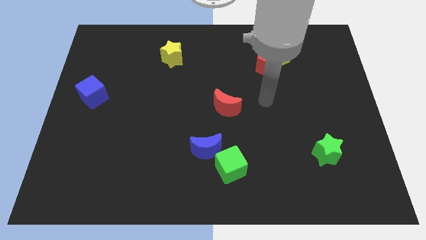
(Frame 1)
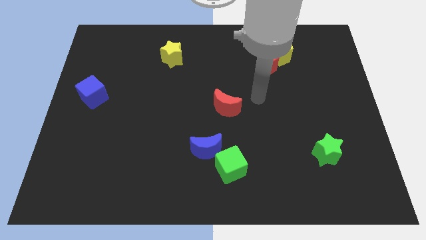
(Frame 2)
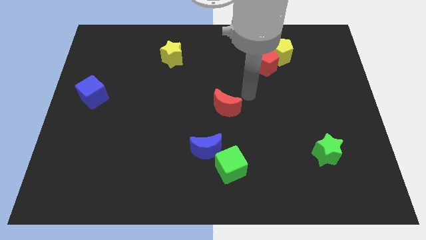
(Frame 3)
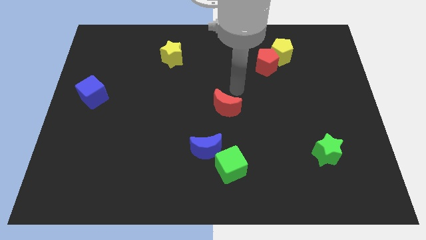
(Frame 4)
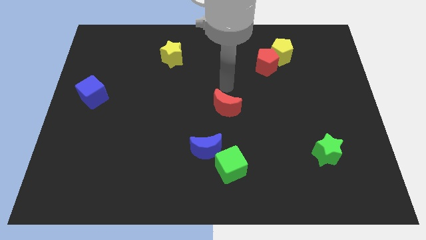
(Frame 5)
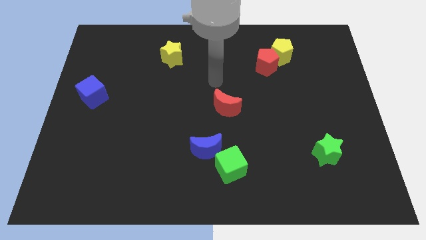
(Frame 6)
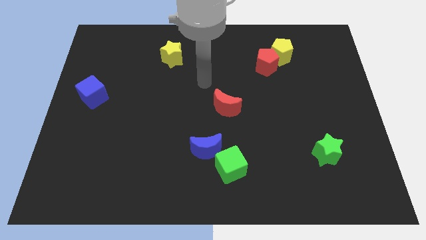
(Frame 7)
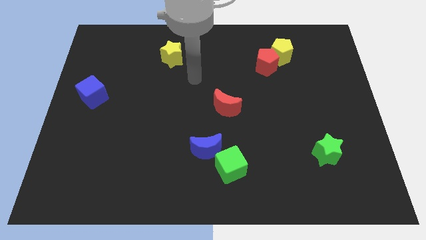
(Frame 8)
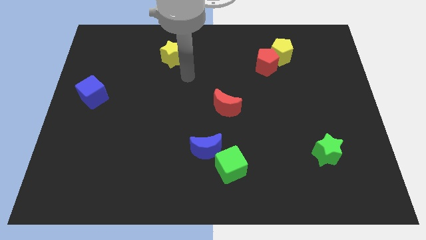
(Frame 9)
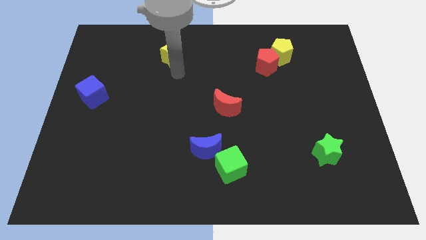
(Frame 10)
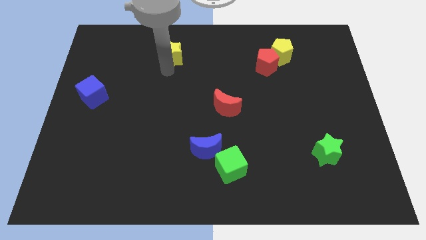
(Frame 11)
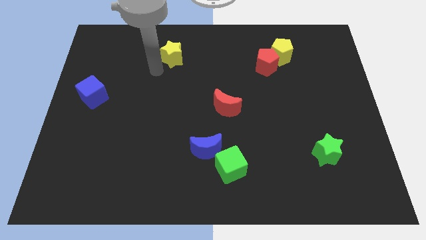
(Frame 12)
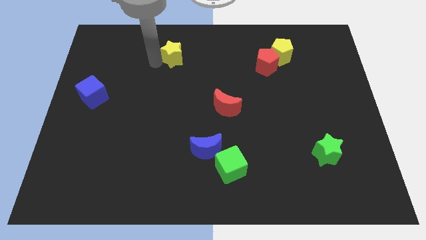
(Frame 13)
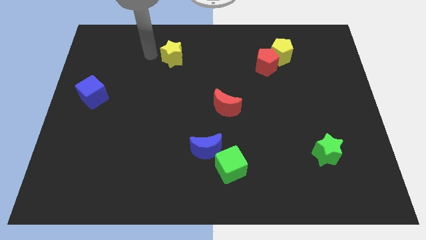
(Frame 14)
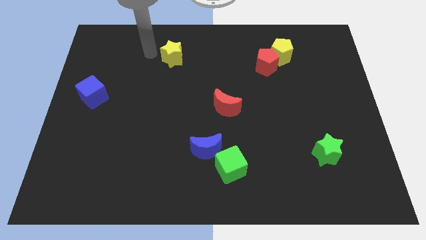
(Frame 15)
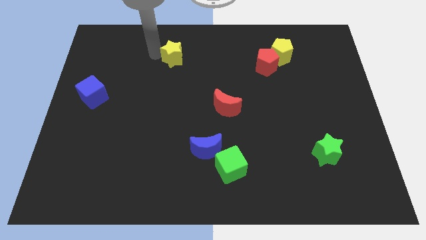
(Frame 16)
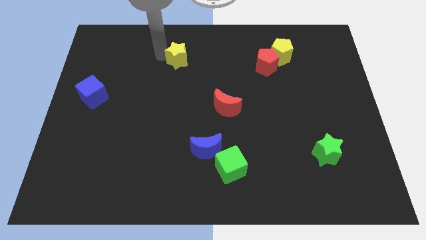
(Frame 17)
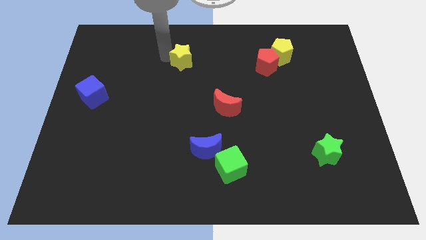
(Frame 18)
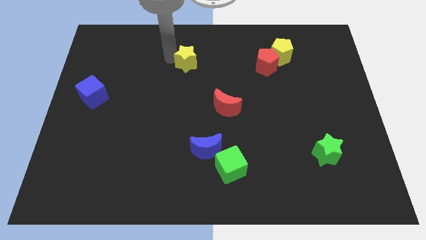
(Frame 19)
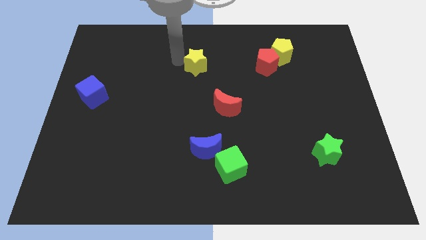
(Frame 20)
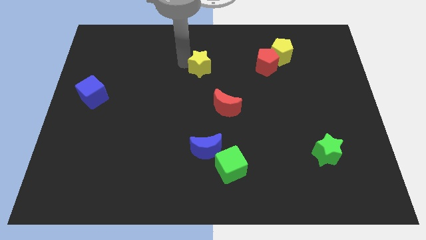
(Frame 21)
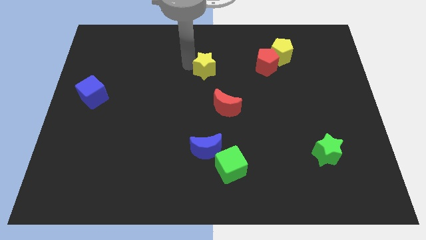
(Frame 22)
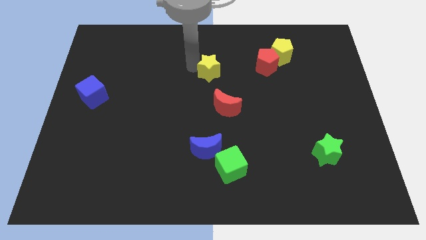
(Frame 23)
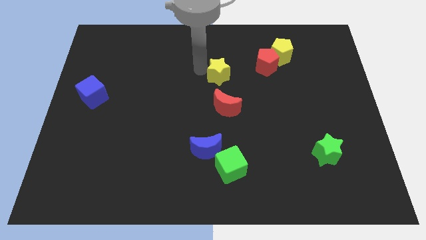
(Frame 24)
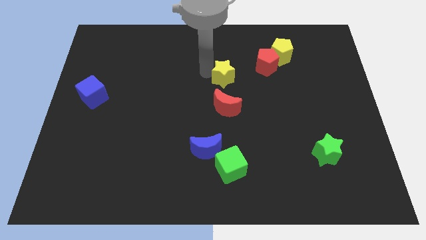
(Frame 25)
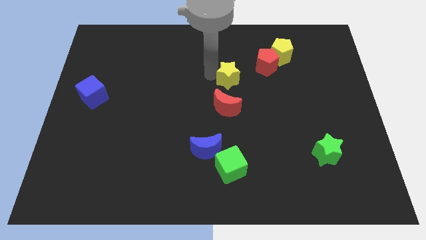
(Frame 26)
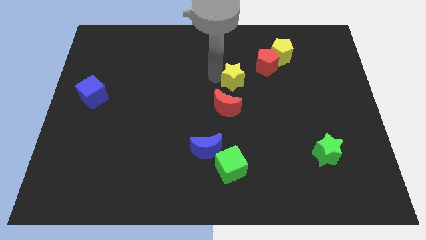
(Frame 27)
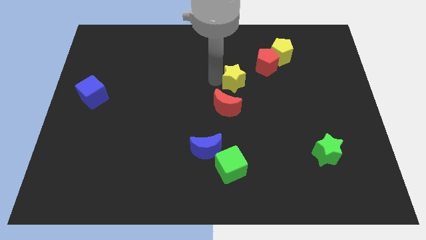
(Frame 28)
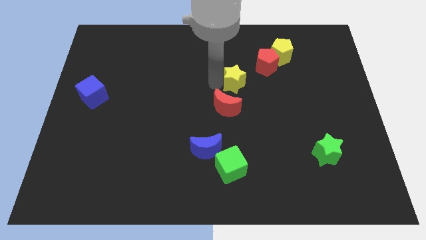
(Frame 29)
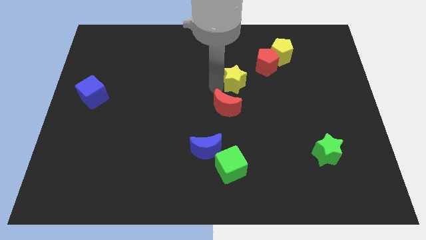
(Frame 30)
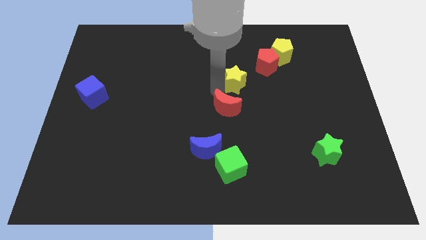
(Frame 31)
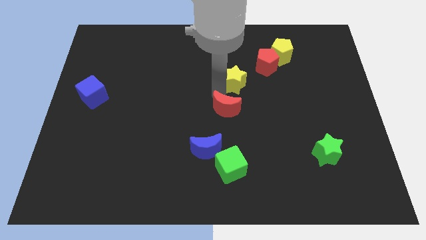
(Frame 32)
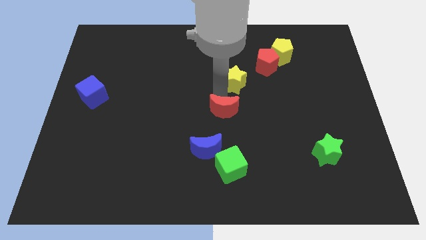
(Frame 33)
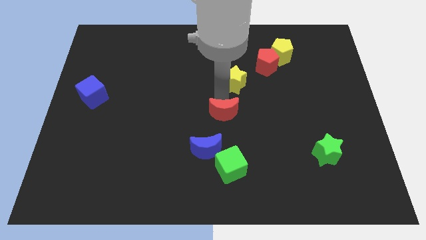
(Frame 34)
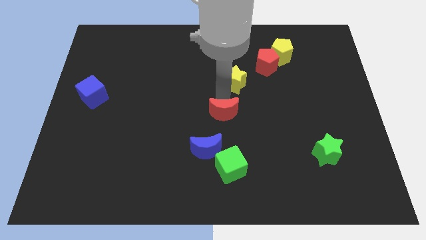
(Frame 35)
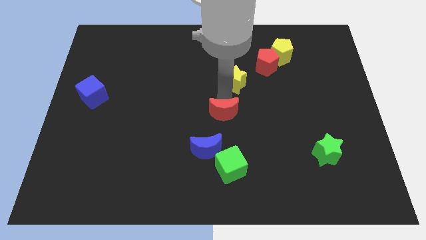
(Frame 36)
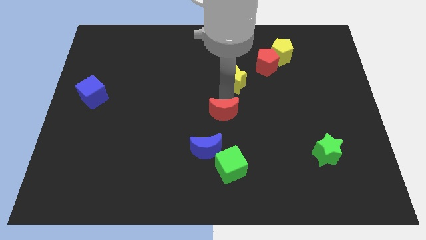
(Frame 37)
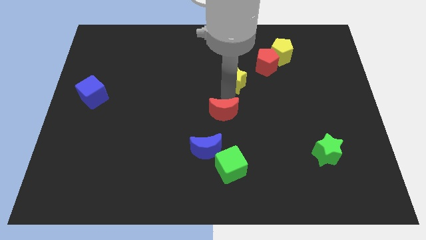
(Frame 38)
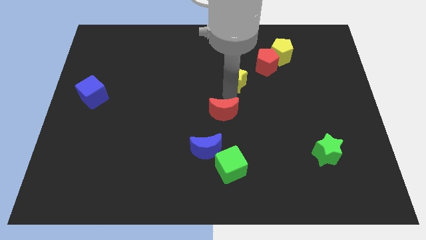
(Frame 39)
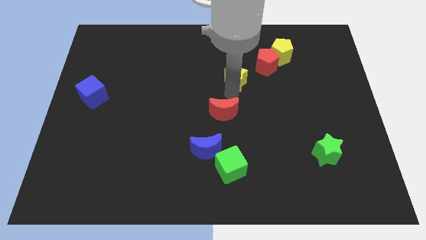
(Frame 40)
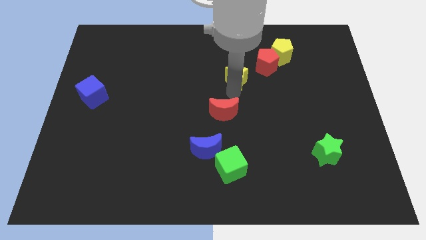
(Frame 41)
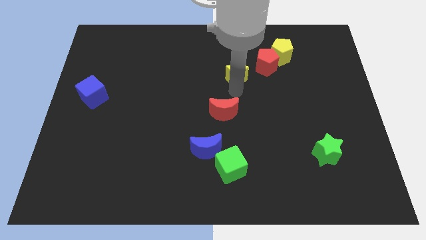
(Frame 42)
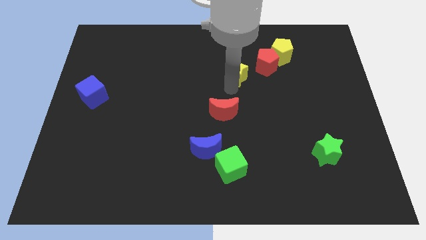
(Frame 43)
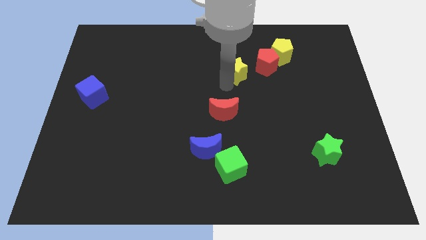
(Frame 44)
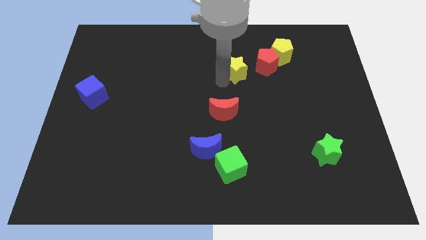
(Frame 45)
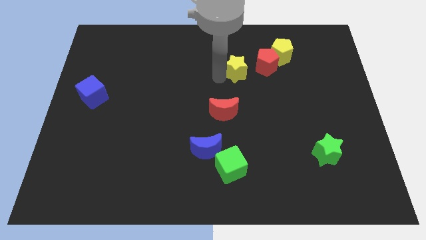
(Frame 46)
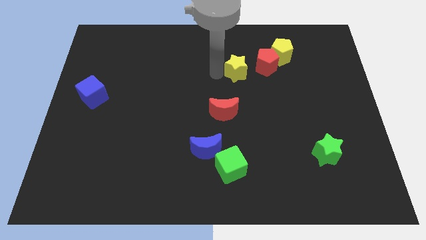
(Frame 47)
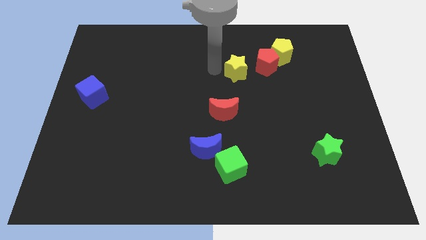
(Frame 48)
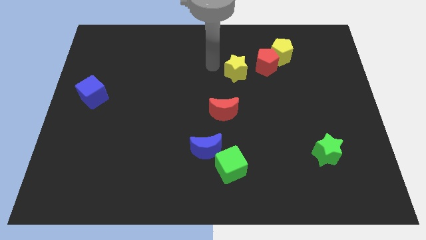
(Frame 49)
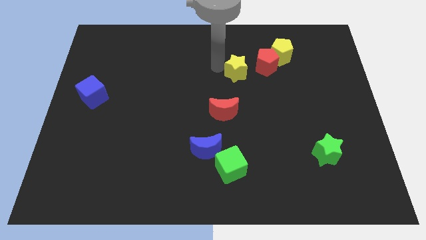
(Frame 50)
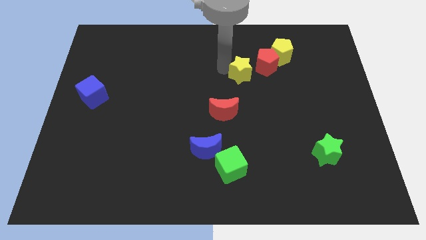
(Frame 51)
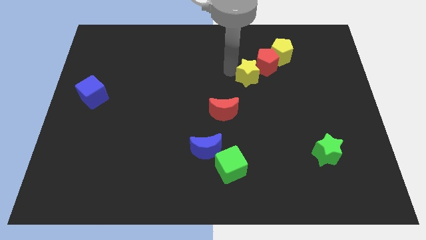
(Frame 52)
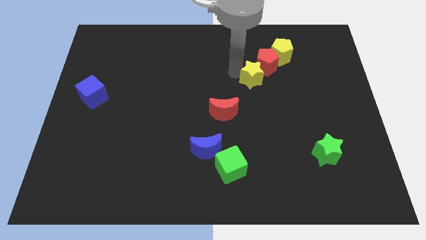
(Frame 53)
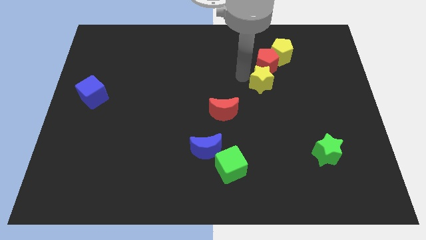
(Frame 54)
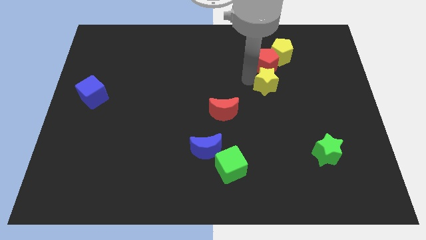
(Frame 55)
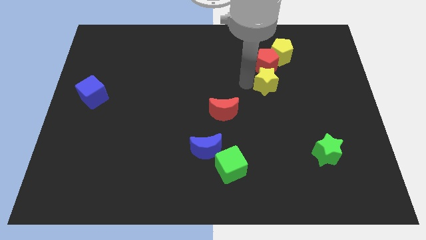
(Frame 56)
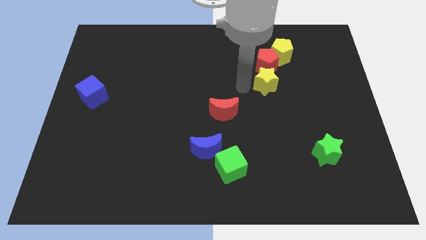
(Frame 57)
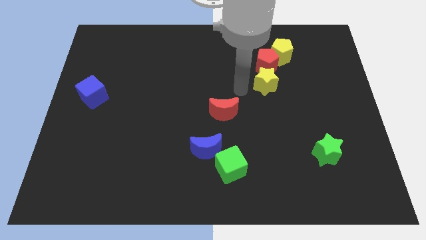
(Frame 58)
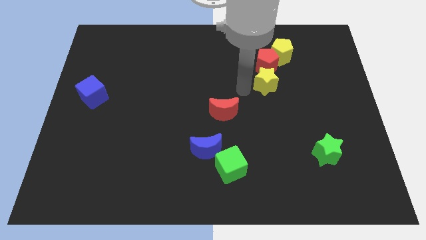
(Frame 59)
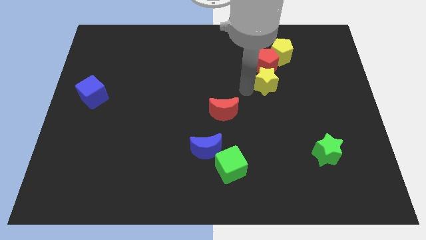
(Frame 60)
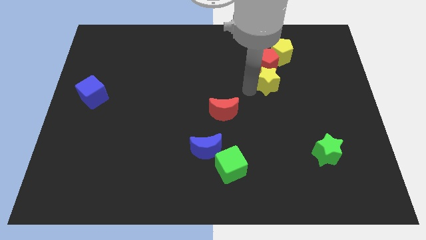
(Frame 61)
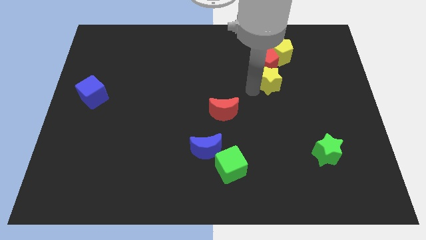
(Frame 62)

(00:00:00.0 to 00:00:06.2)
slide the yellow star to the bottom right side of the red pentagon
